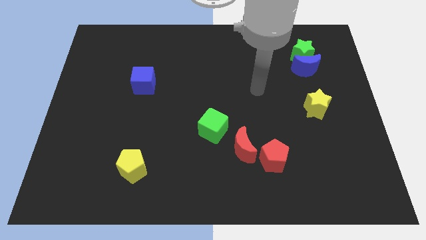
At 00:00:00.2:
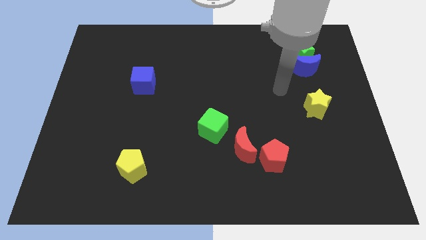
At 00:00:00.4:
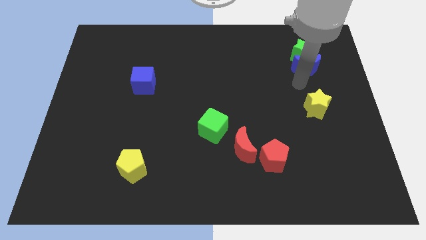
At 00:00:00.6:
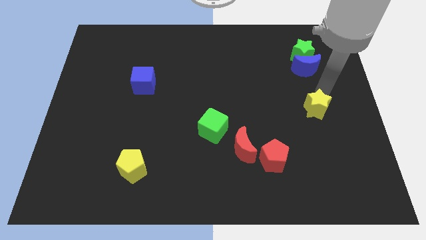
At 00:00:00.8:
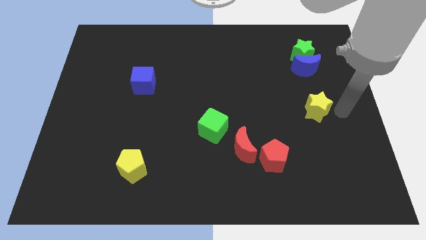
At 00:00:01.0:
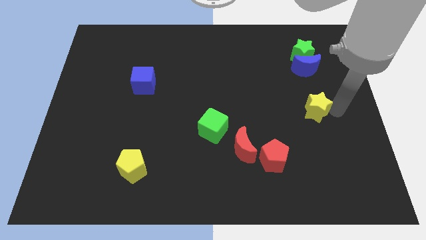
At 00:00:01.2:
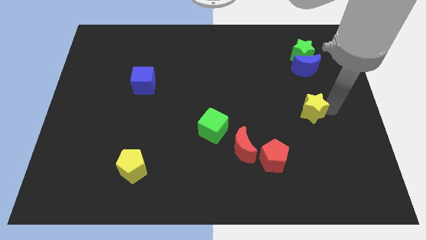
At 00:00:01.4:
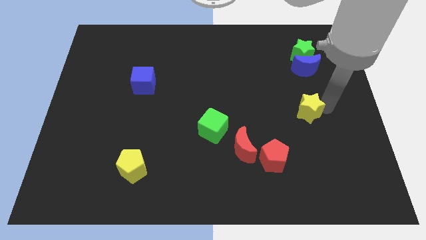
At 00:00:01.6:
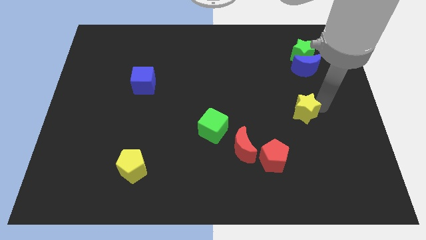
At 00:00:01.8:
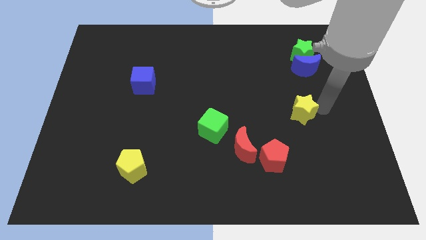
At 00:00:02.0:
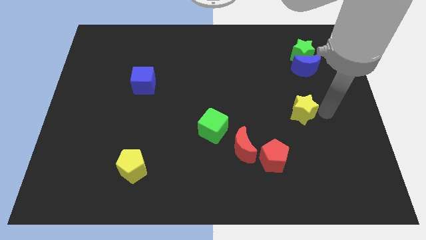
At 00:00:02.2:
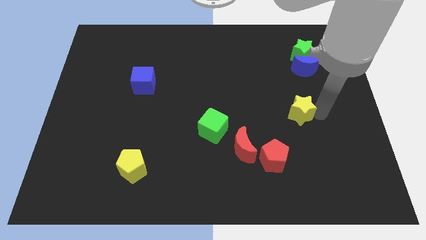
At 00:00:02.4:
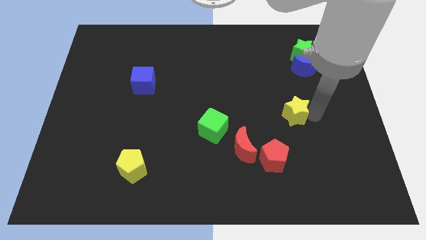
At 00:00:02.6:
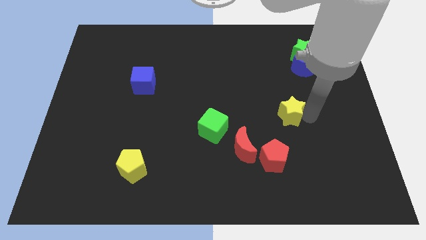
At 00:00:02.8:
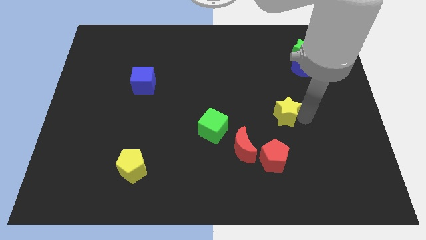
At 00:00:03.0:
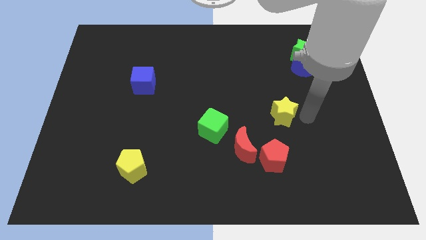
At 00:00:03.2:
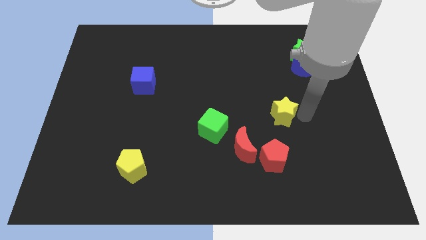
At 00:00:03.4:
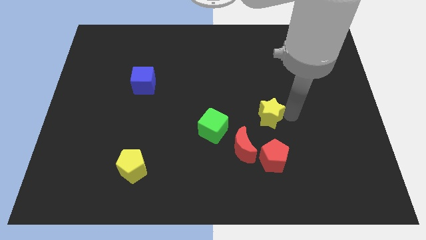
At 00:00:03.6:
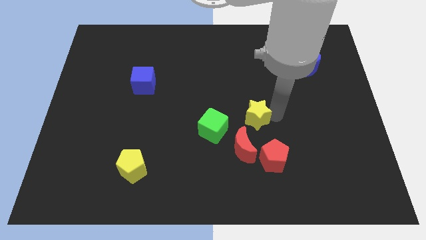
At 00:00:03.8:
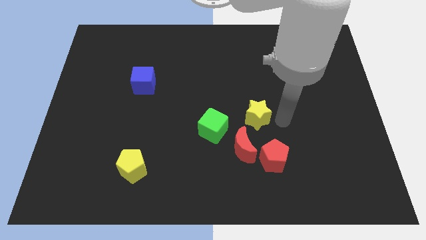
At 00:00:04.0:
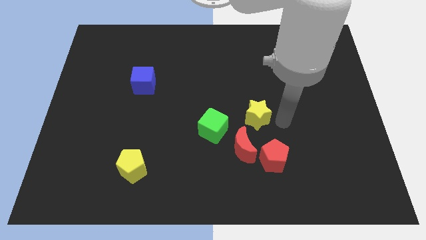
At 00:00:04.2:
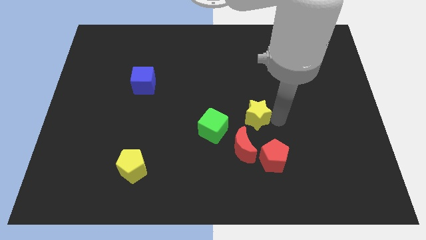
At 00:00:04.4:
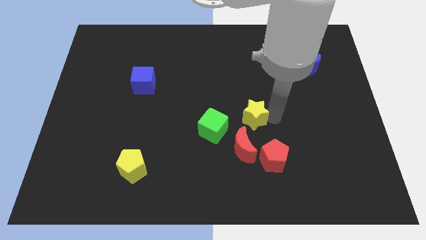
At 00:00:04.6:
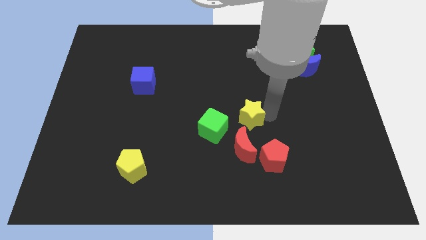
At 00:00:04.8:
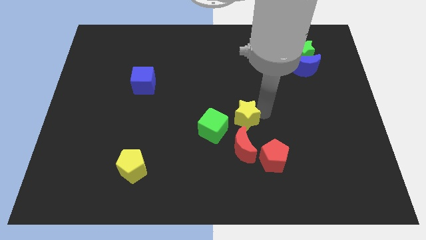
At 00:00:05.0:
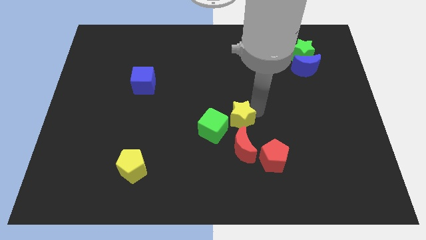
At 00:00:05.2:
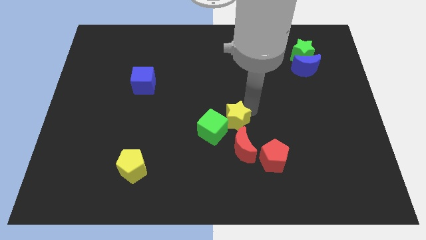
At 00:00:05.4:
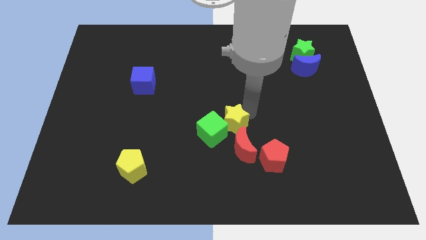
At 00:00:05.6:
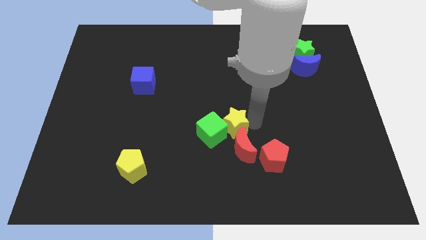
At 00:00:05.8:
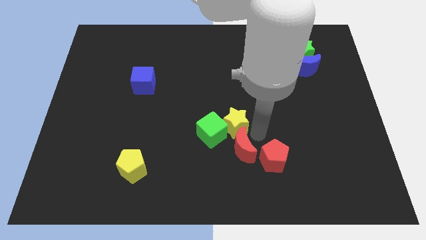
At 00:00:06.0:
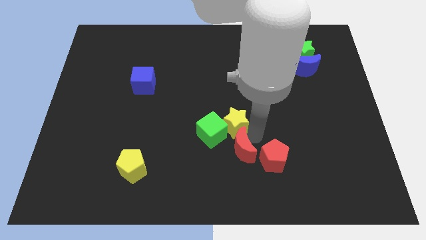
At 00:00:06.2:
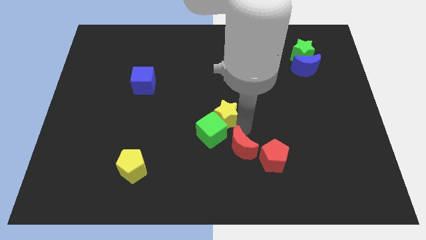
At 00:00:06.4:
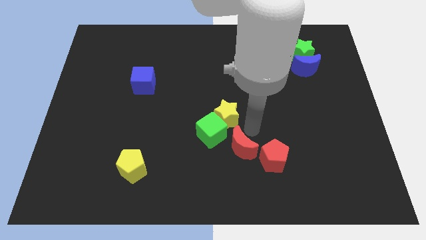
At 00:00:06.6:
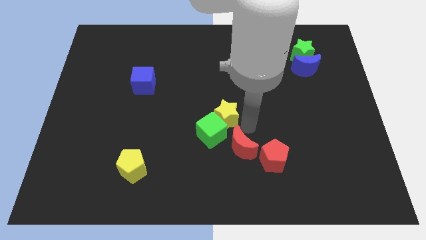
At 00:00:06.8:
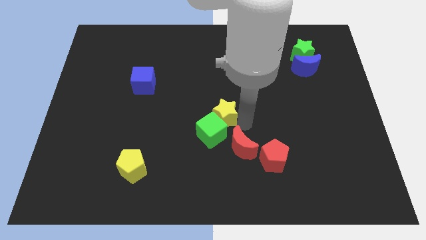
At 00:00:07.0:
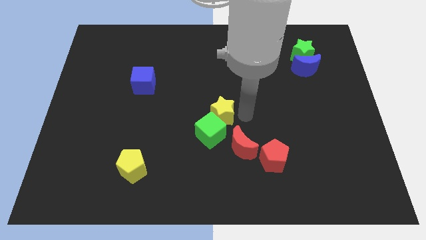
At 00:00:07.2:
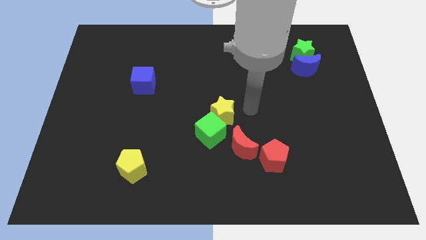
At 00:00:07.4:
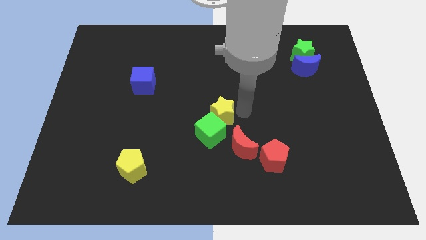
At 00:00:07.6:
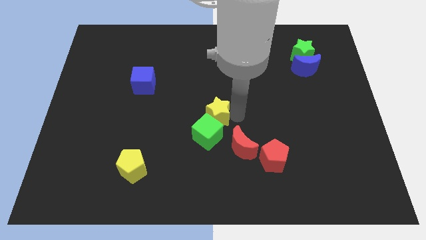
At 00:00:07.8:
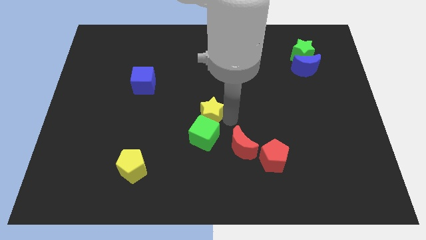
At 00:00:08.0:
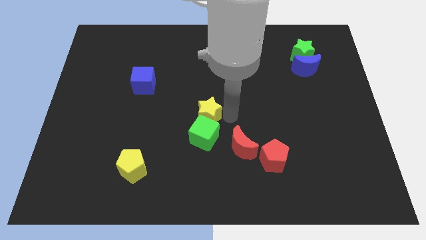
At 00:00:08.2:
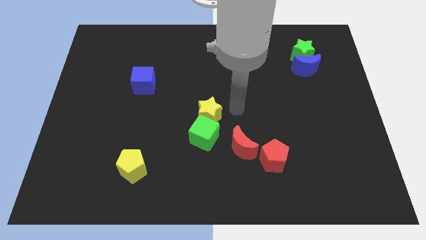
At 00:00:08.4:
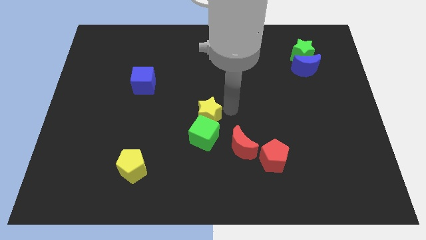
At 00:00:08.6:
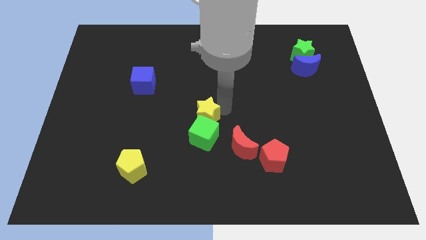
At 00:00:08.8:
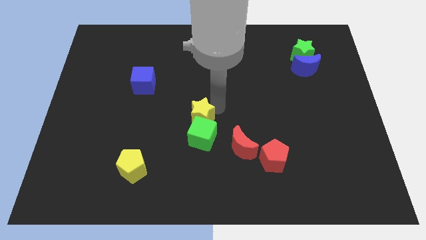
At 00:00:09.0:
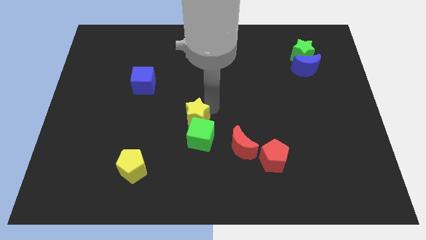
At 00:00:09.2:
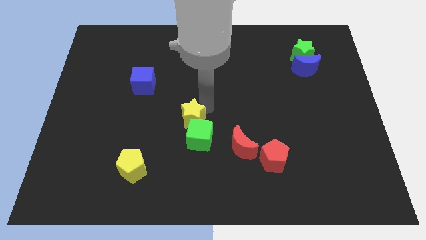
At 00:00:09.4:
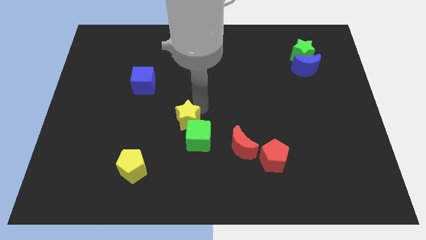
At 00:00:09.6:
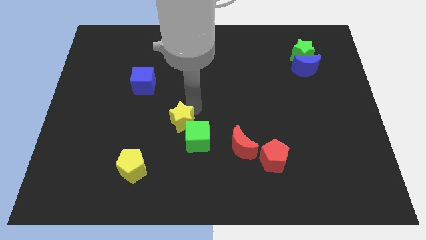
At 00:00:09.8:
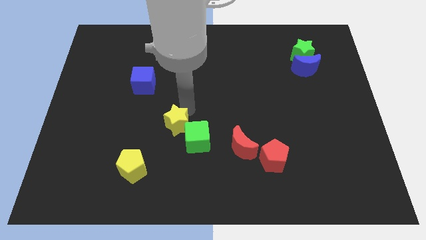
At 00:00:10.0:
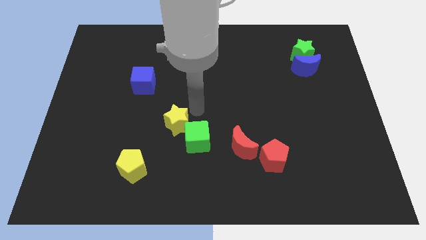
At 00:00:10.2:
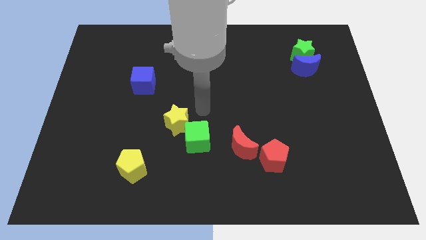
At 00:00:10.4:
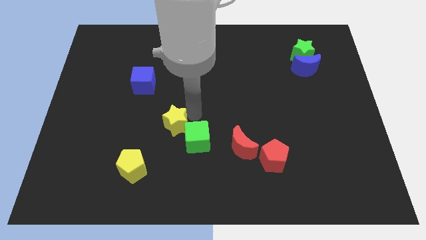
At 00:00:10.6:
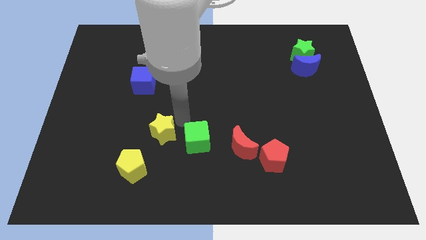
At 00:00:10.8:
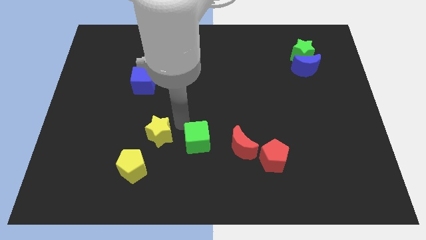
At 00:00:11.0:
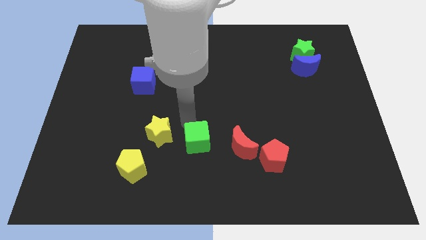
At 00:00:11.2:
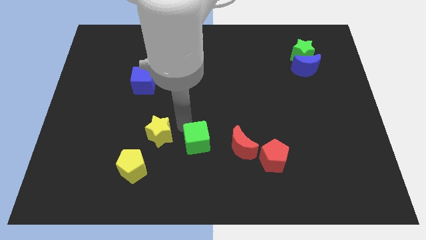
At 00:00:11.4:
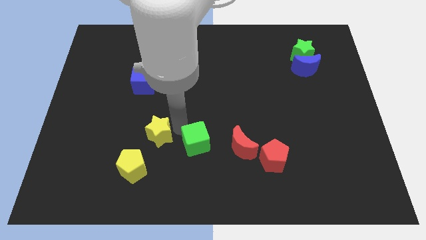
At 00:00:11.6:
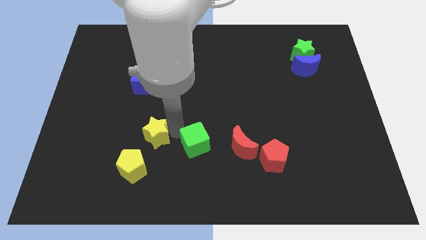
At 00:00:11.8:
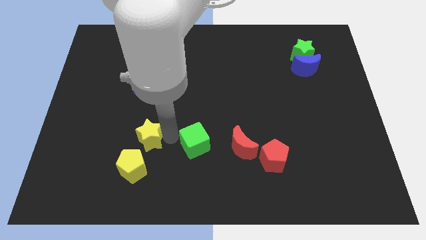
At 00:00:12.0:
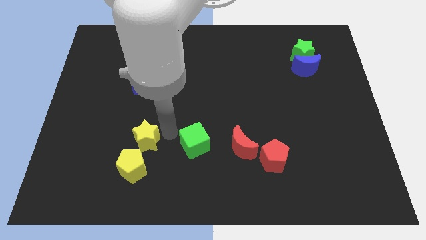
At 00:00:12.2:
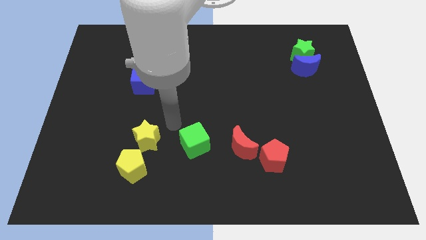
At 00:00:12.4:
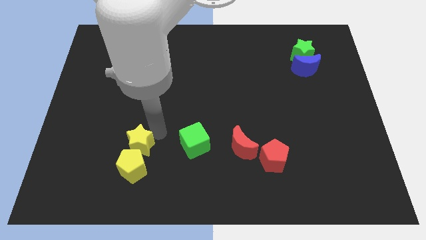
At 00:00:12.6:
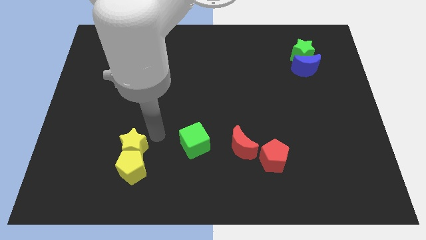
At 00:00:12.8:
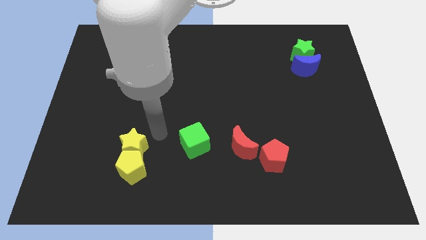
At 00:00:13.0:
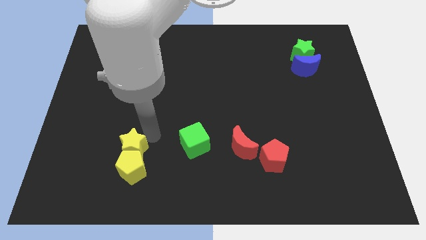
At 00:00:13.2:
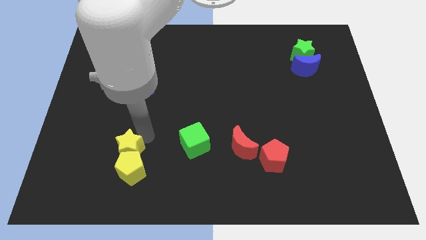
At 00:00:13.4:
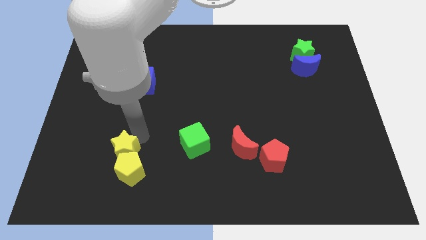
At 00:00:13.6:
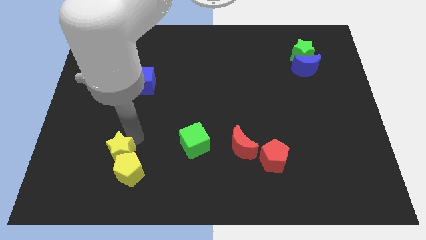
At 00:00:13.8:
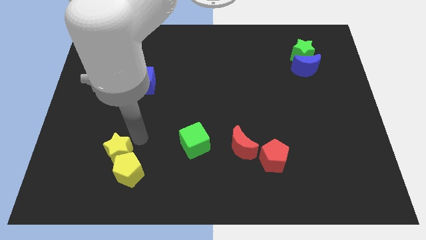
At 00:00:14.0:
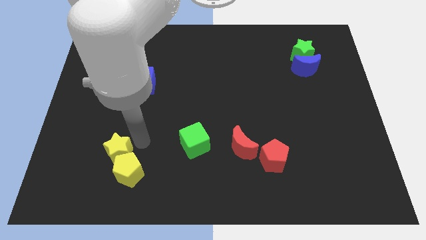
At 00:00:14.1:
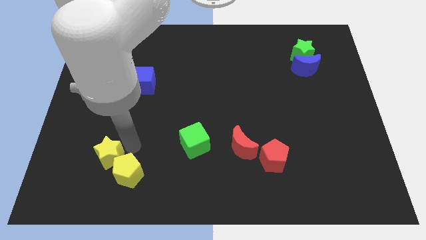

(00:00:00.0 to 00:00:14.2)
move the yellow star to the left of the yellow pentagon
